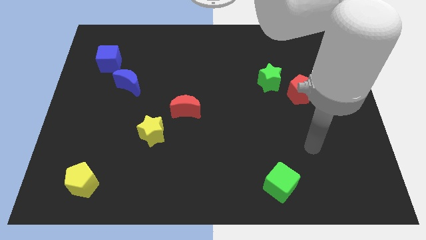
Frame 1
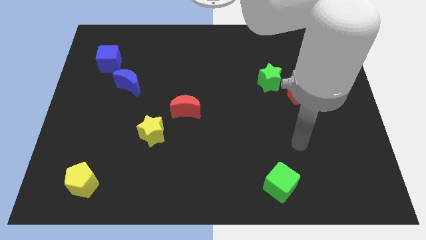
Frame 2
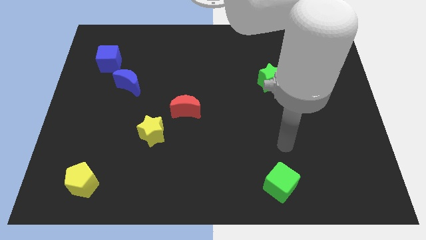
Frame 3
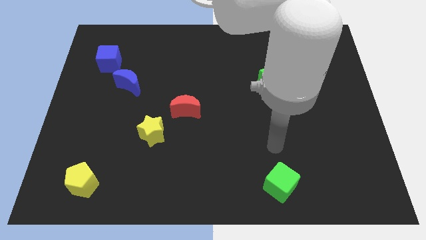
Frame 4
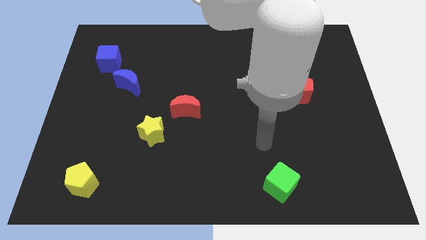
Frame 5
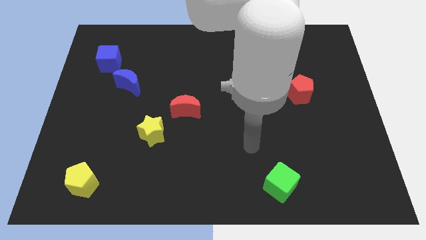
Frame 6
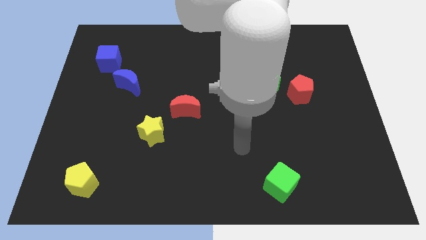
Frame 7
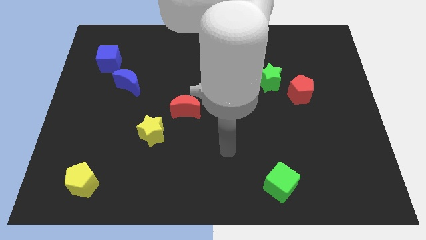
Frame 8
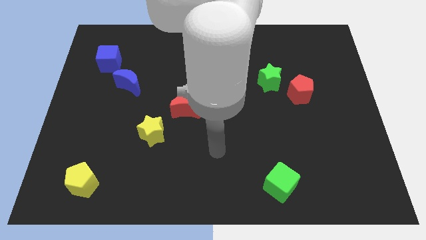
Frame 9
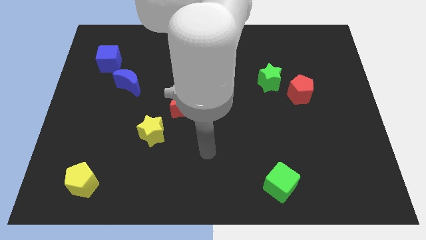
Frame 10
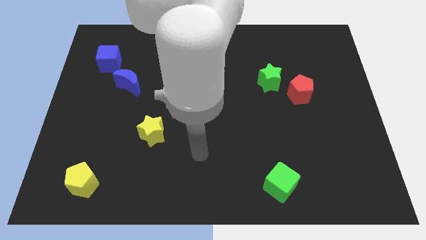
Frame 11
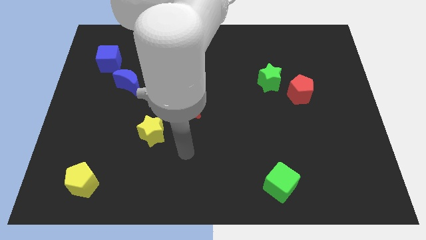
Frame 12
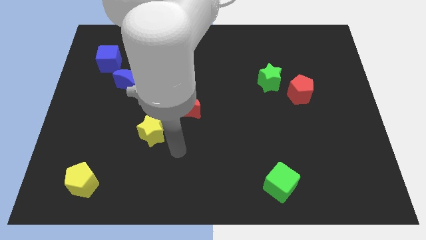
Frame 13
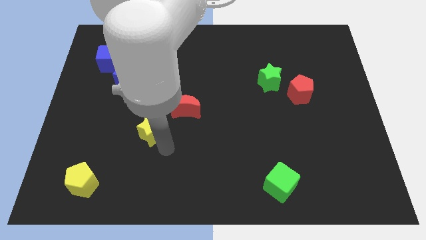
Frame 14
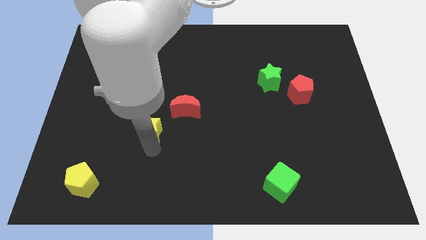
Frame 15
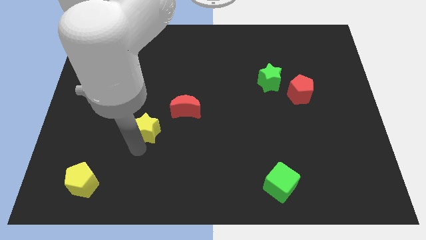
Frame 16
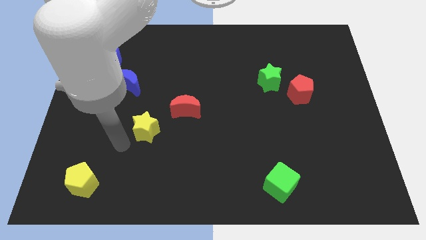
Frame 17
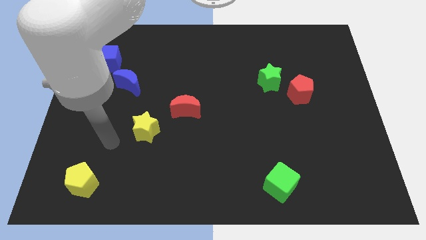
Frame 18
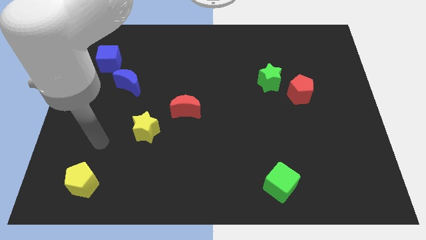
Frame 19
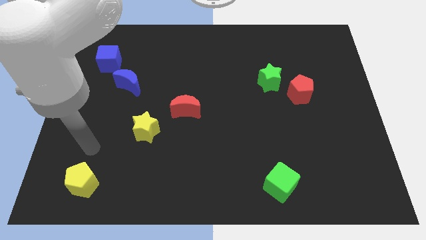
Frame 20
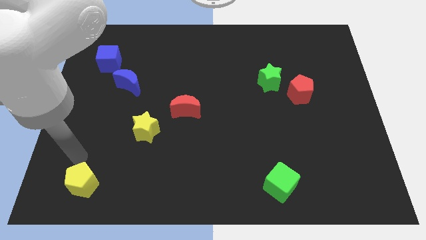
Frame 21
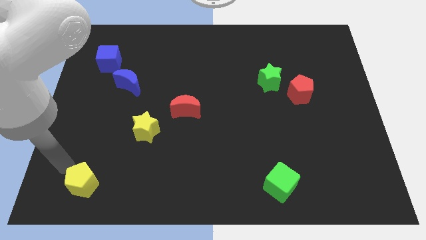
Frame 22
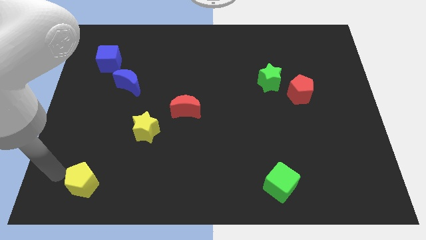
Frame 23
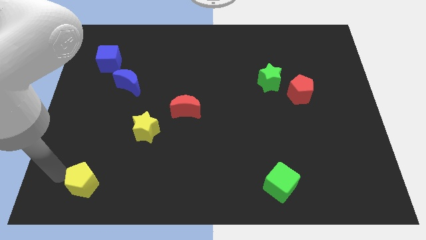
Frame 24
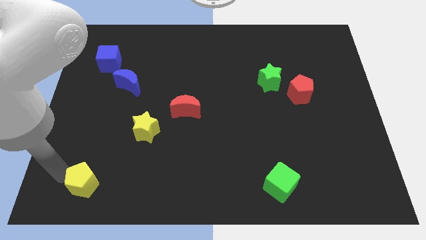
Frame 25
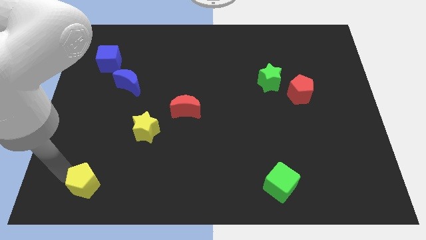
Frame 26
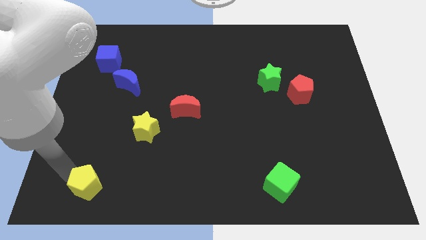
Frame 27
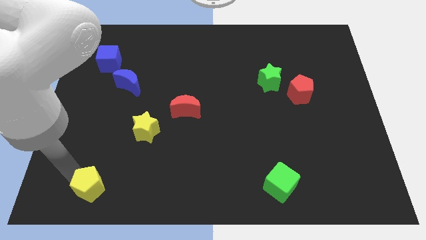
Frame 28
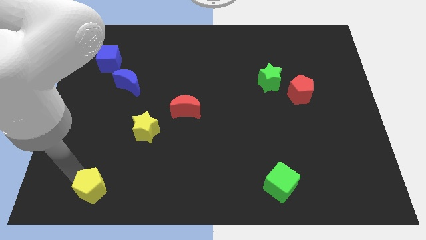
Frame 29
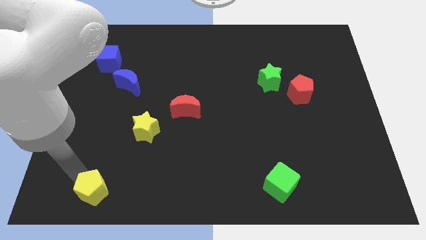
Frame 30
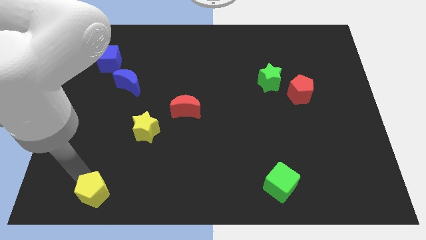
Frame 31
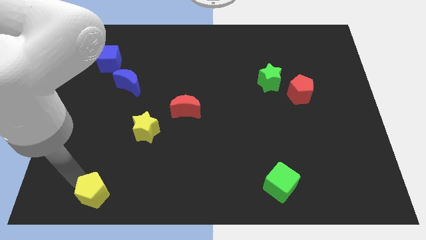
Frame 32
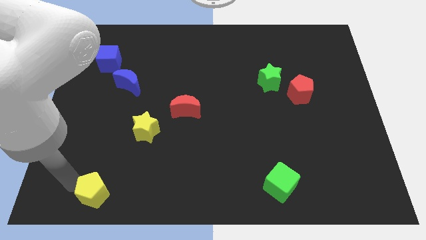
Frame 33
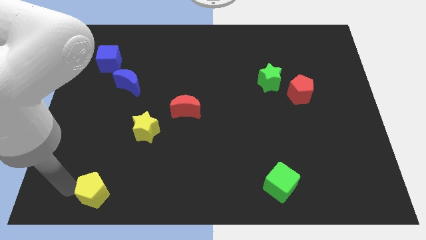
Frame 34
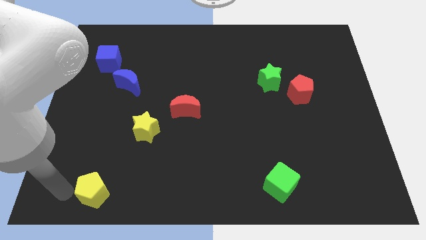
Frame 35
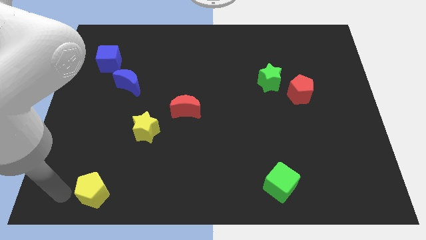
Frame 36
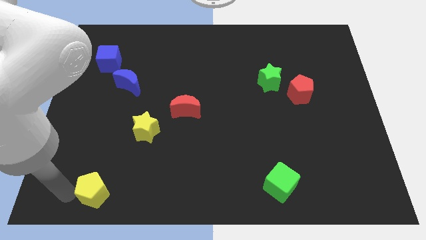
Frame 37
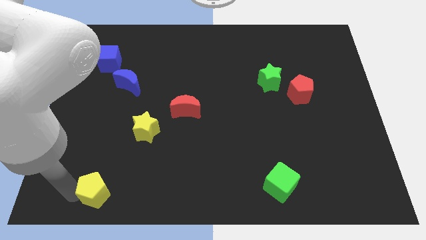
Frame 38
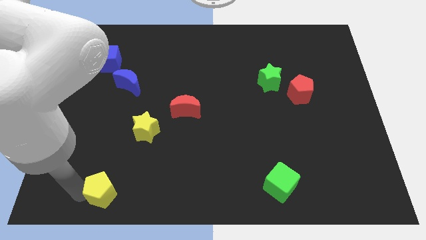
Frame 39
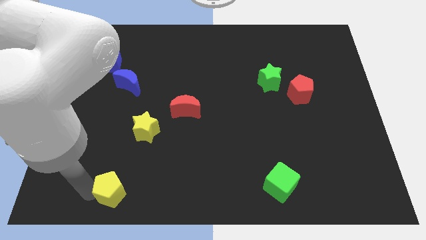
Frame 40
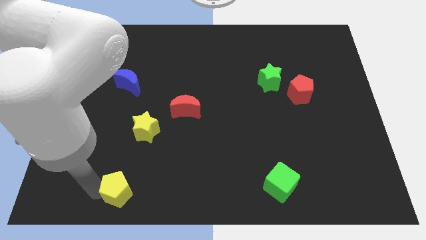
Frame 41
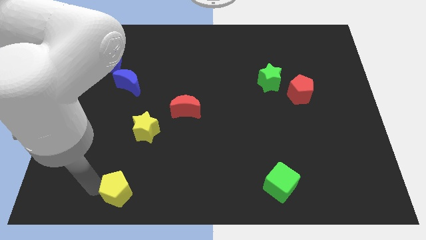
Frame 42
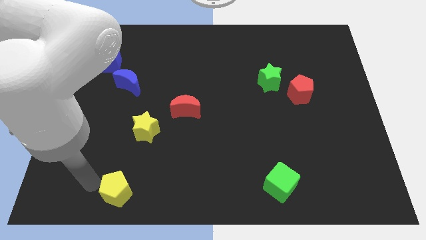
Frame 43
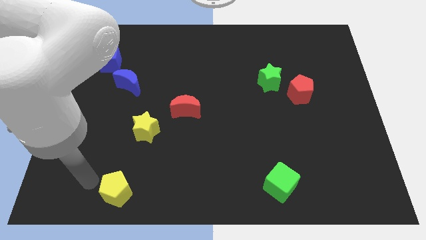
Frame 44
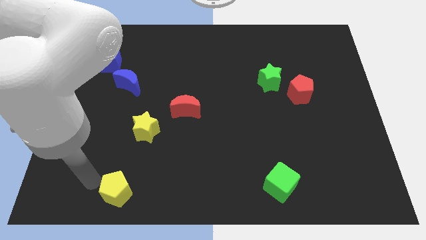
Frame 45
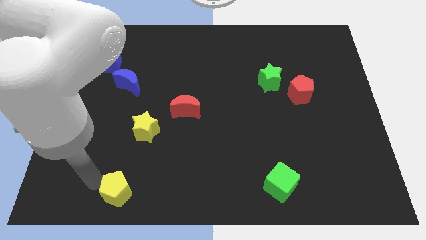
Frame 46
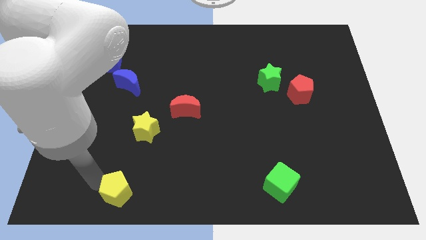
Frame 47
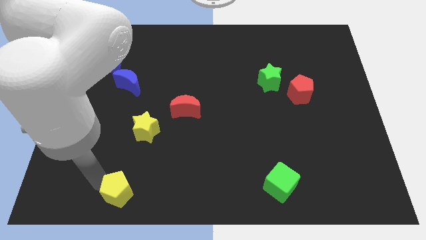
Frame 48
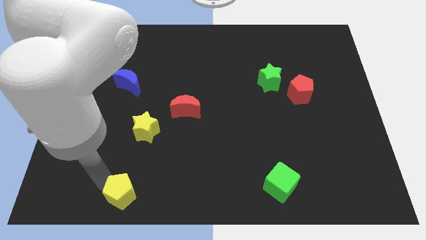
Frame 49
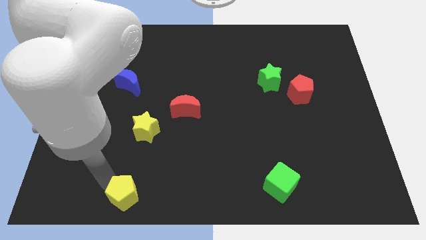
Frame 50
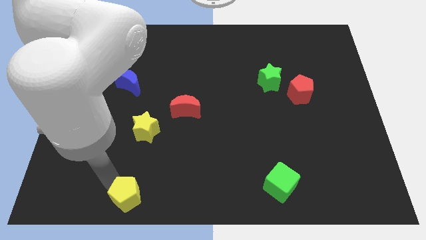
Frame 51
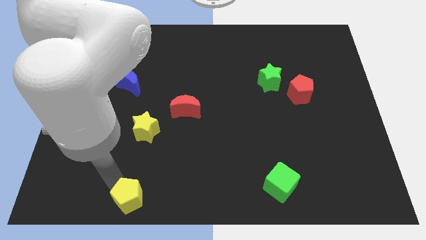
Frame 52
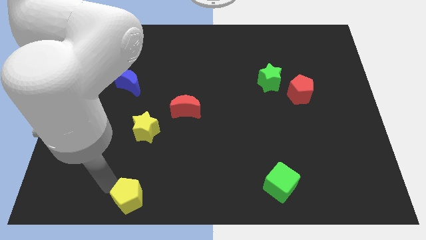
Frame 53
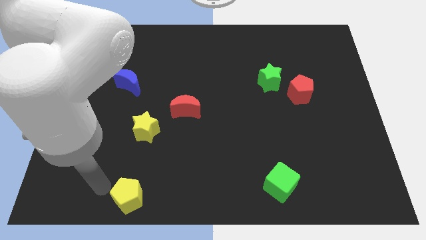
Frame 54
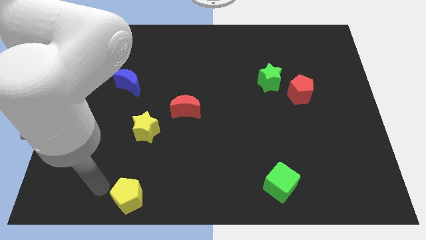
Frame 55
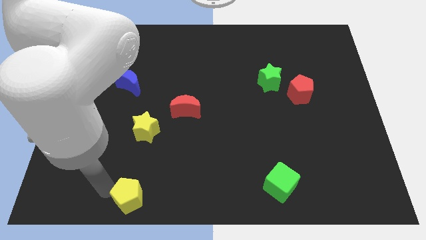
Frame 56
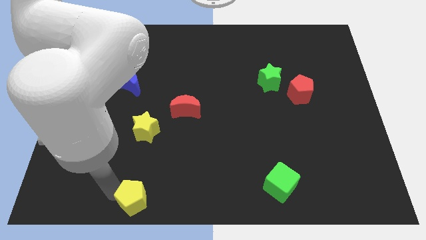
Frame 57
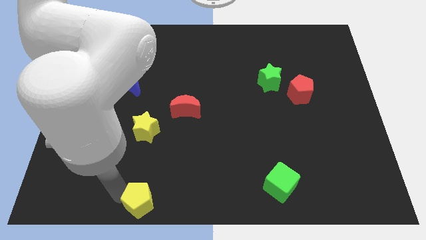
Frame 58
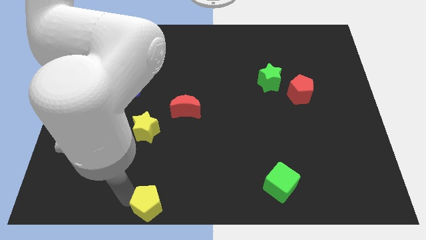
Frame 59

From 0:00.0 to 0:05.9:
move the yellow pentagon to the bottom

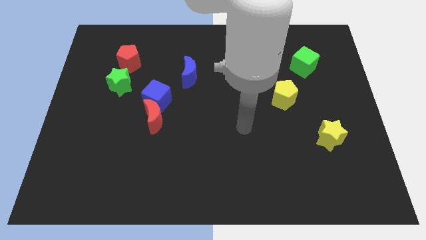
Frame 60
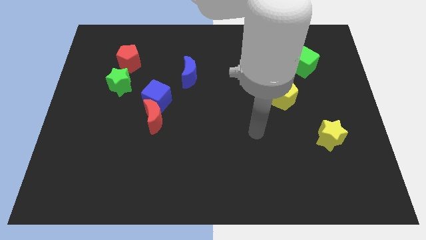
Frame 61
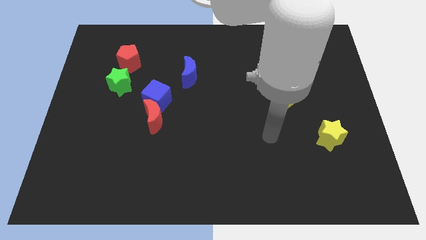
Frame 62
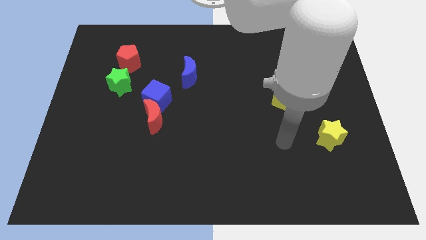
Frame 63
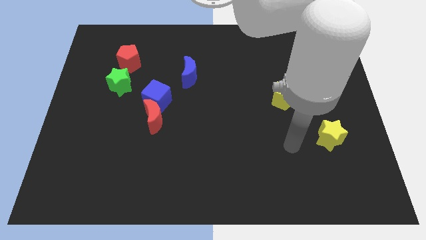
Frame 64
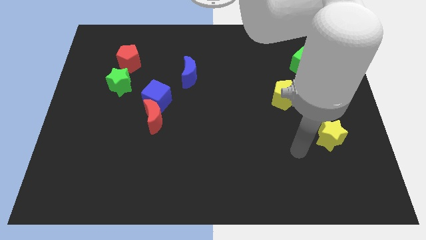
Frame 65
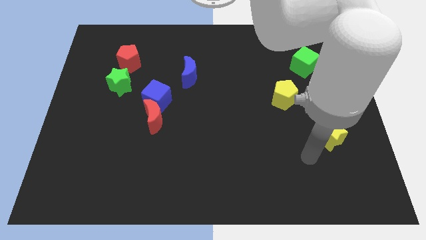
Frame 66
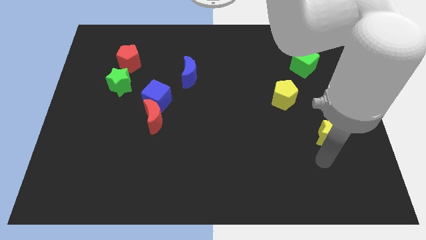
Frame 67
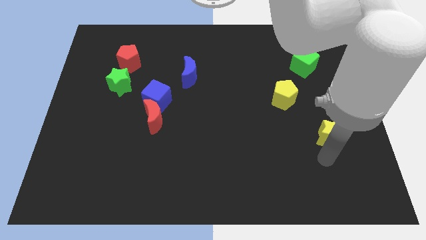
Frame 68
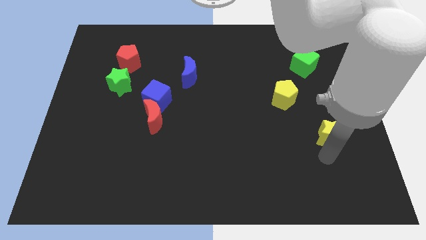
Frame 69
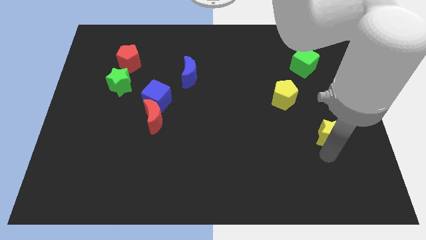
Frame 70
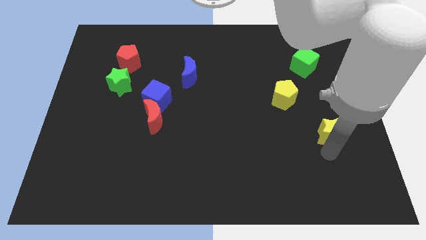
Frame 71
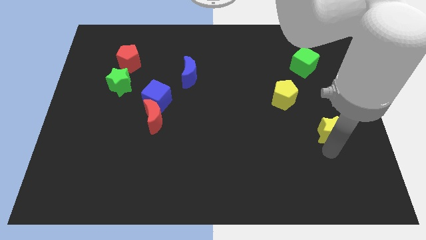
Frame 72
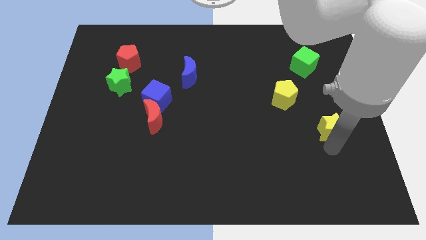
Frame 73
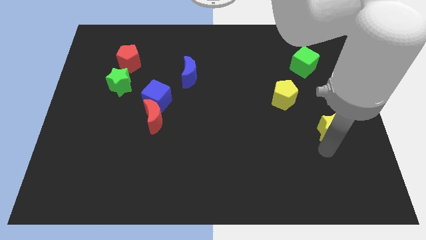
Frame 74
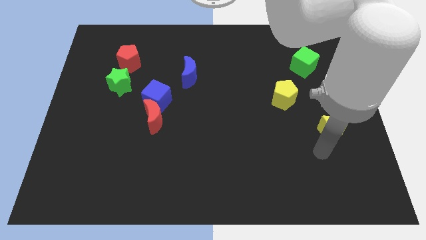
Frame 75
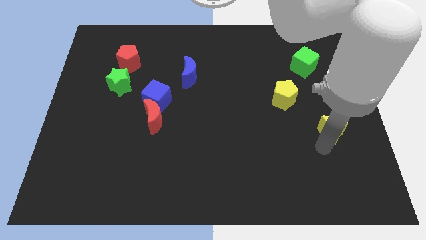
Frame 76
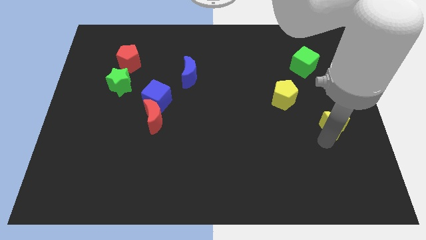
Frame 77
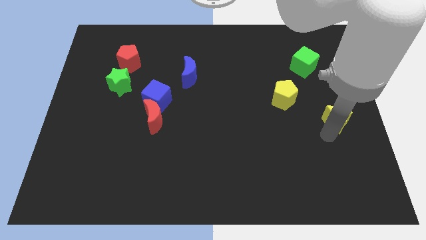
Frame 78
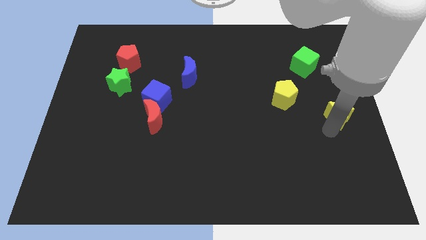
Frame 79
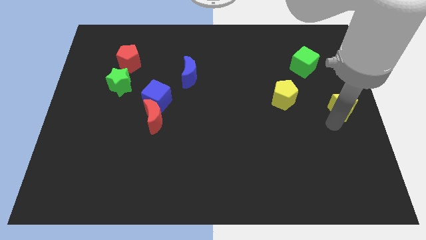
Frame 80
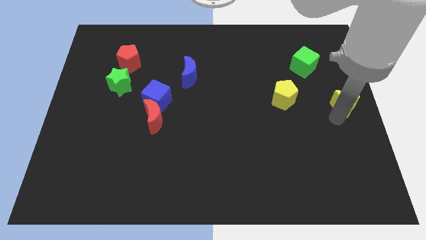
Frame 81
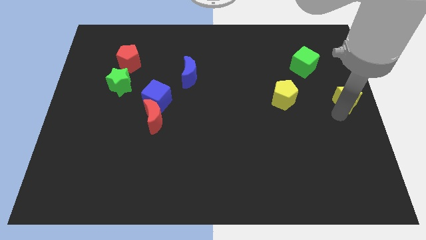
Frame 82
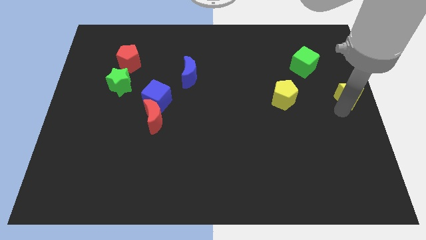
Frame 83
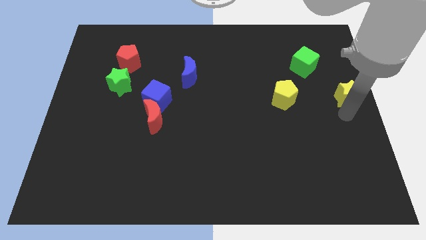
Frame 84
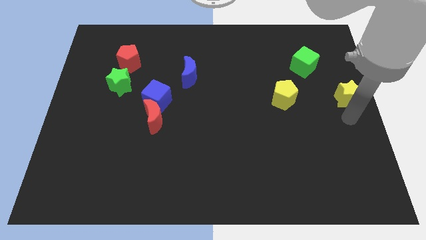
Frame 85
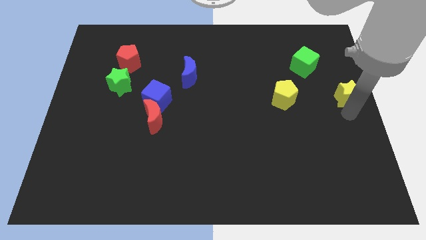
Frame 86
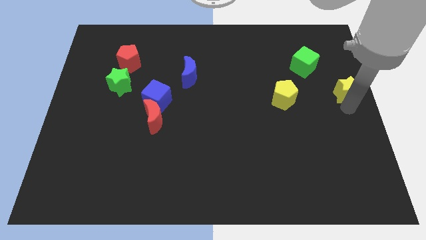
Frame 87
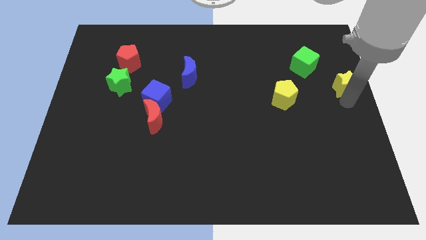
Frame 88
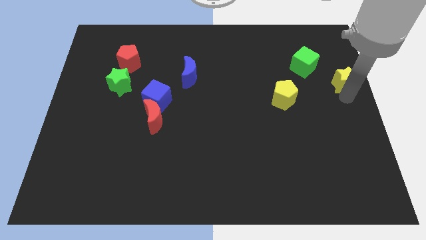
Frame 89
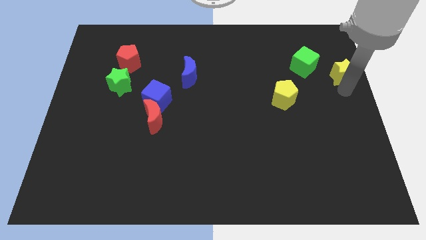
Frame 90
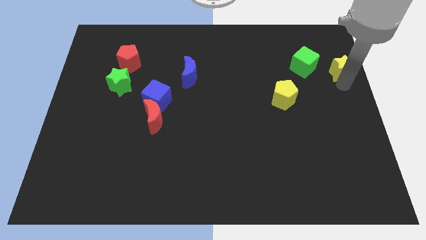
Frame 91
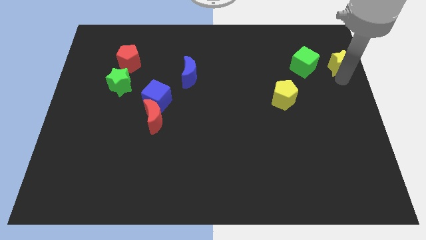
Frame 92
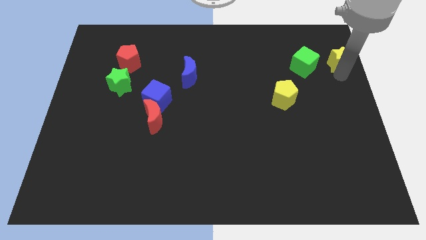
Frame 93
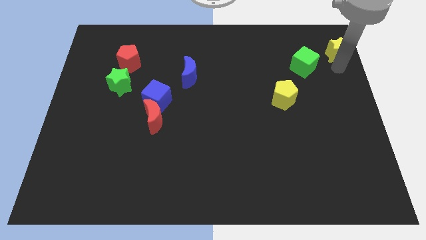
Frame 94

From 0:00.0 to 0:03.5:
move the yellow star to the top right corner
